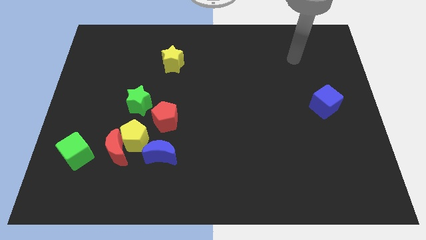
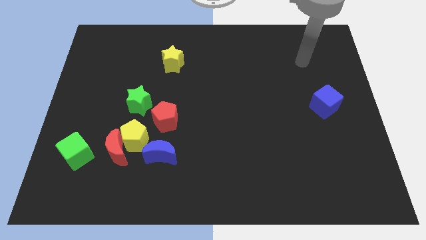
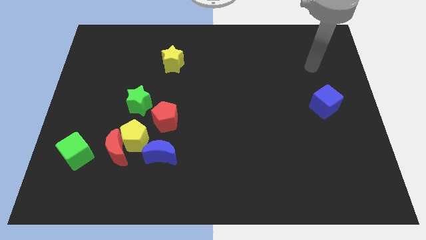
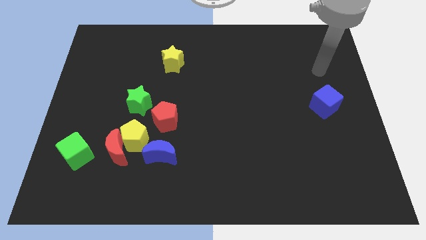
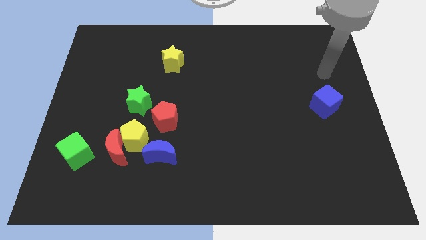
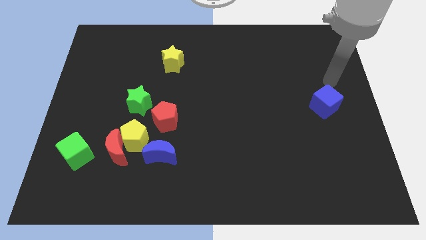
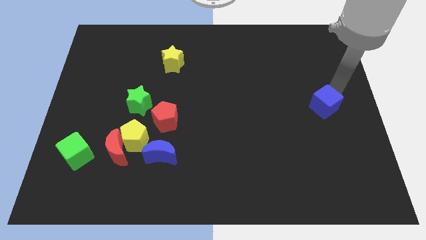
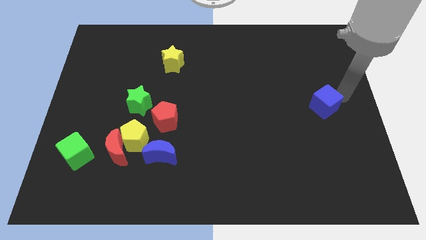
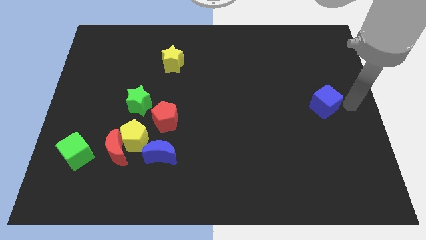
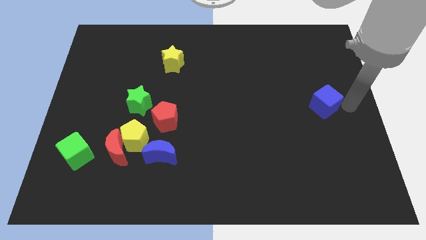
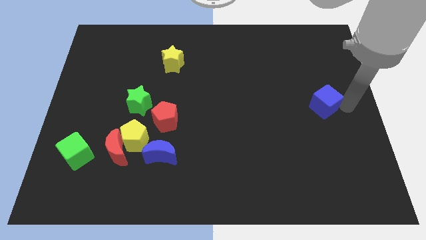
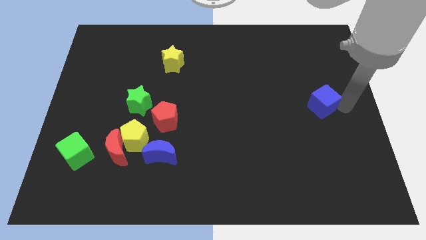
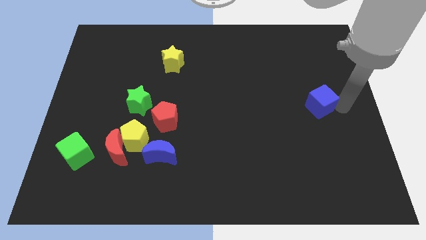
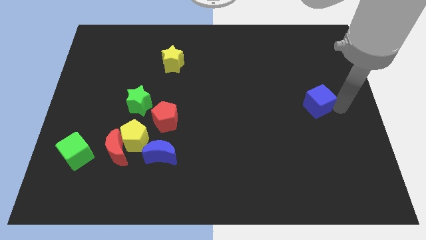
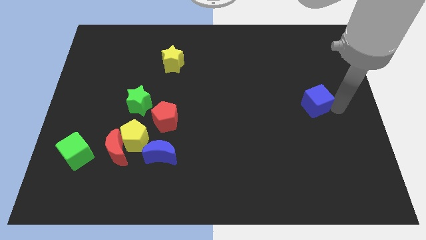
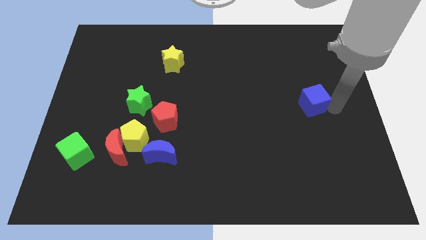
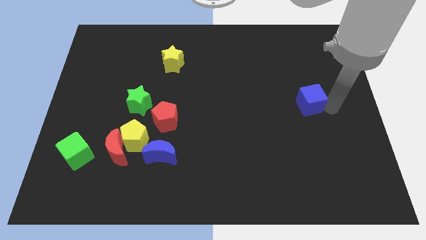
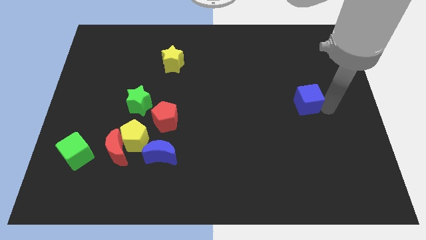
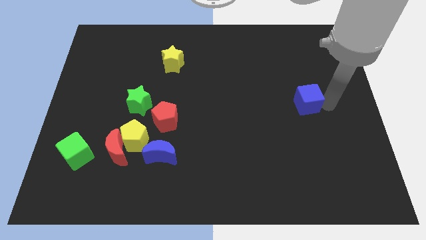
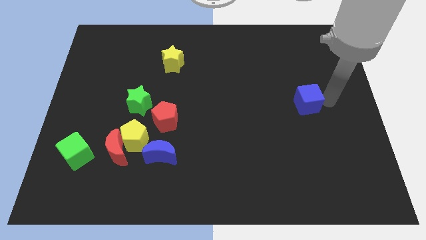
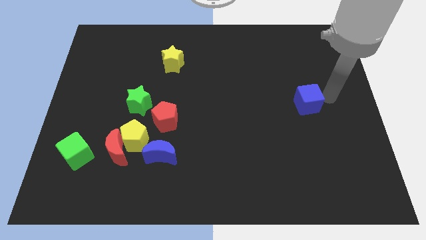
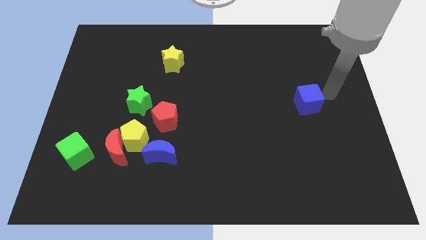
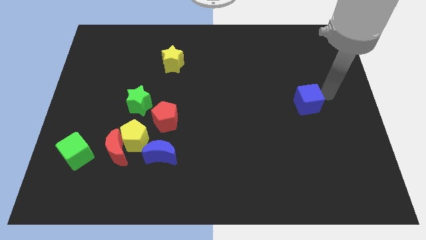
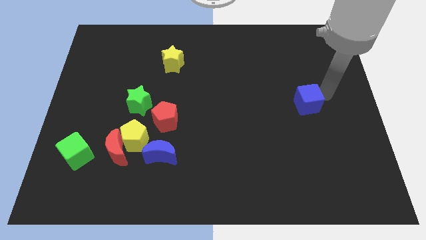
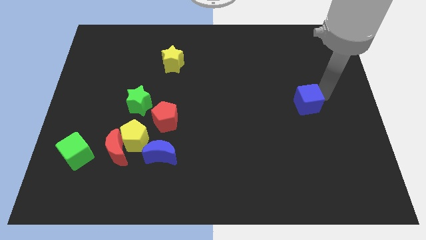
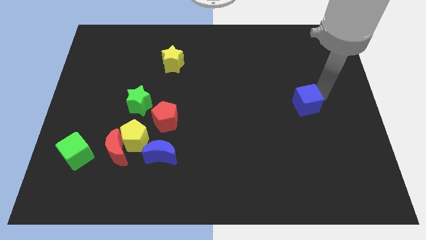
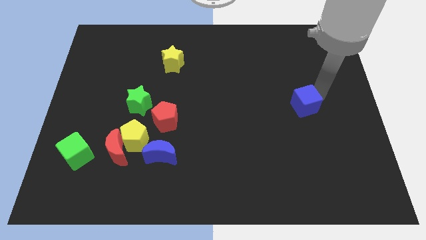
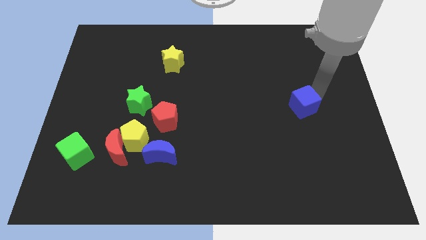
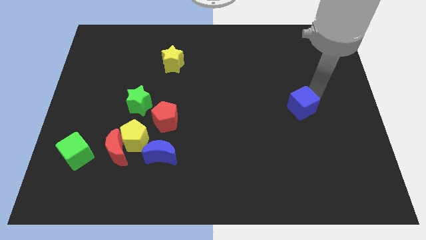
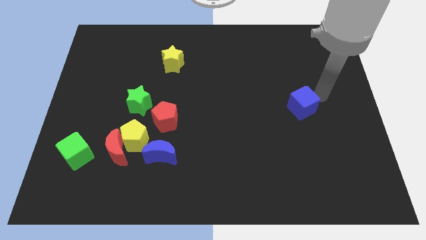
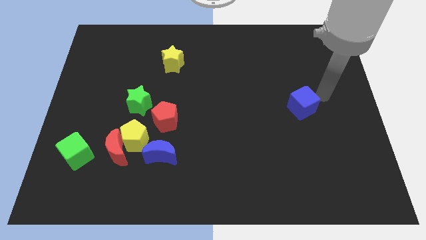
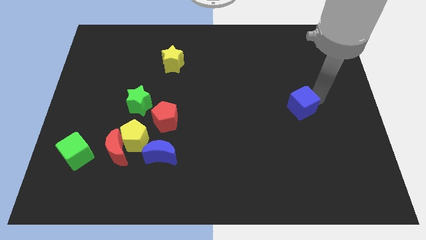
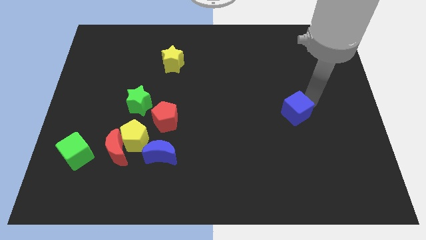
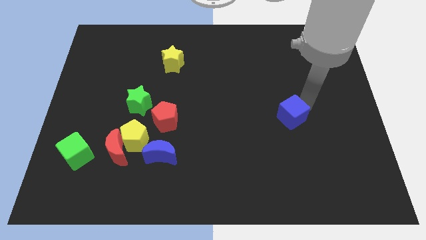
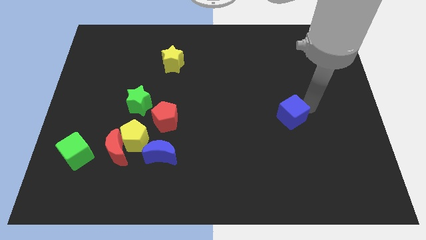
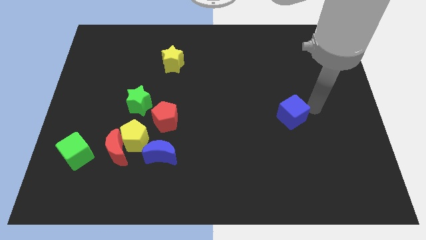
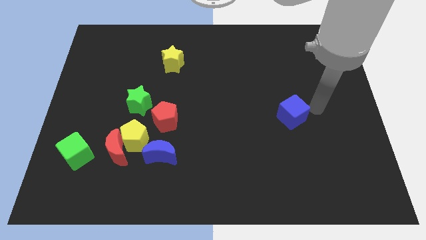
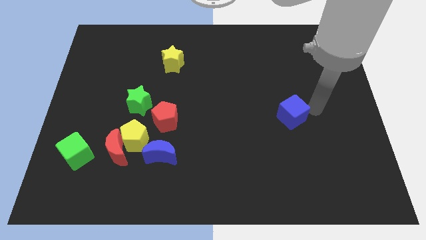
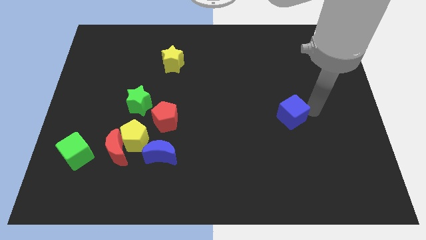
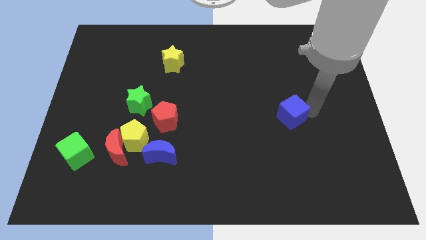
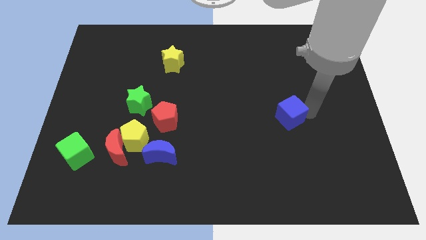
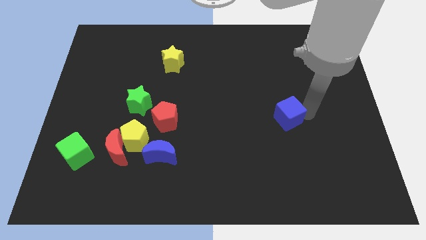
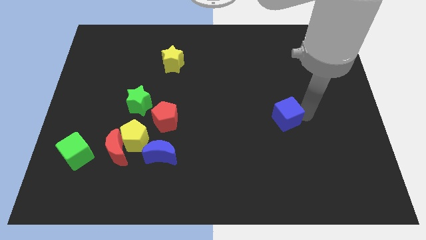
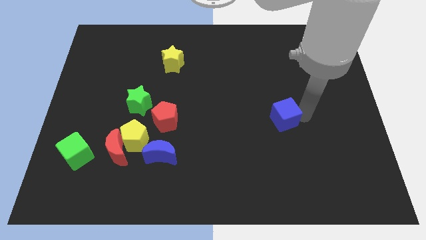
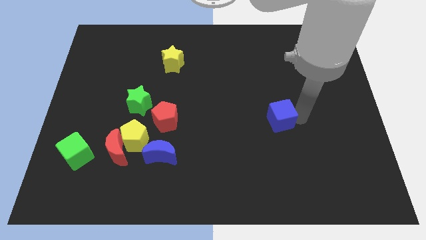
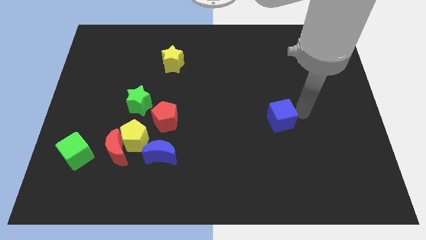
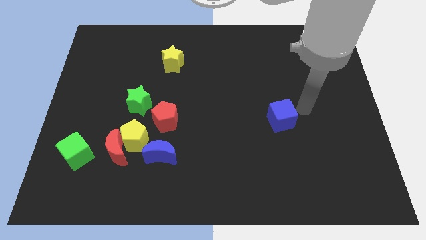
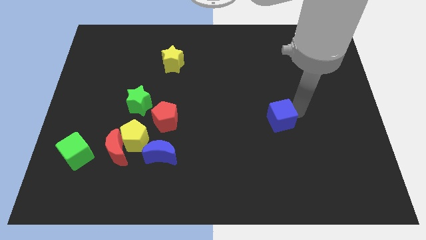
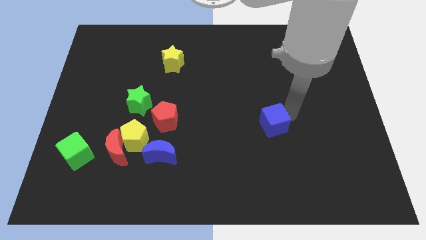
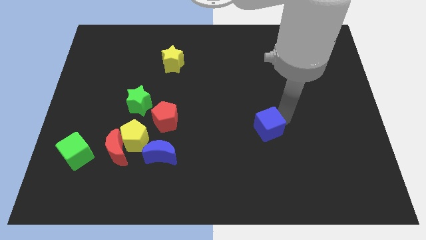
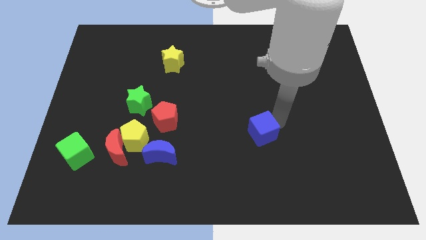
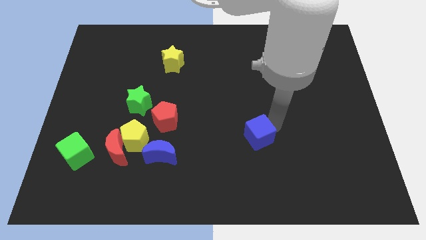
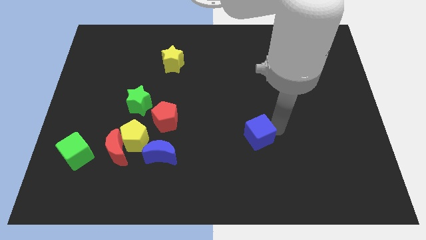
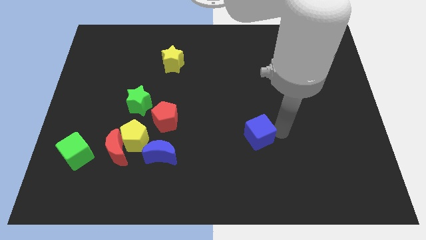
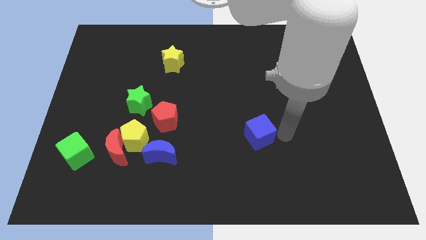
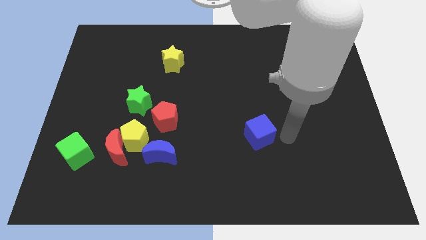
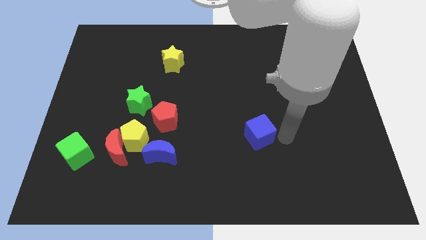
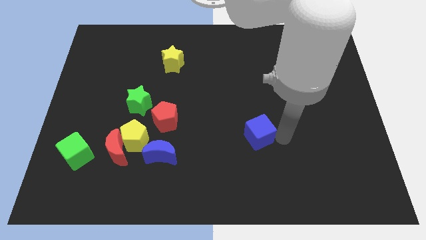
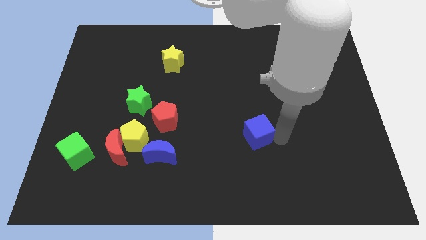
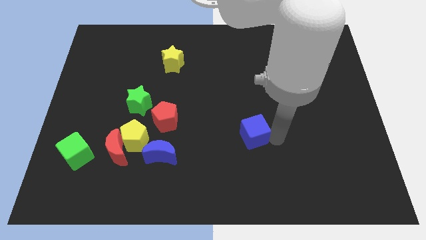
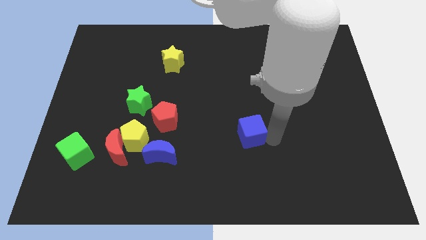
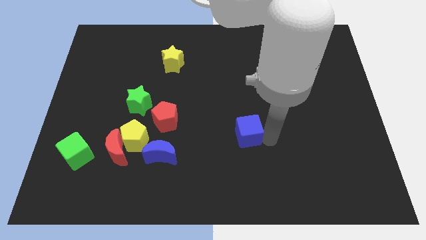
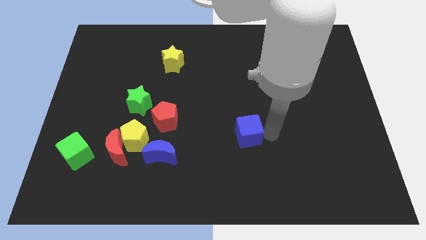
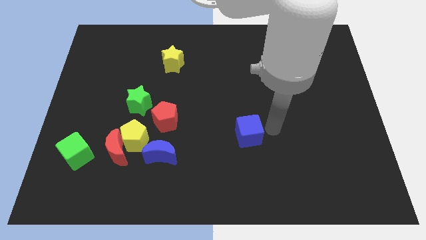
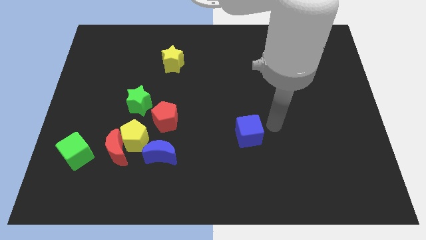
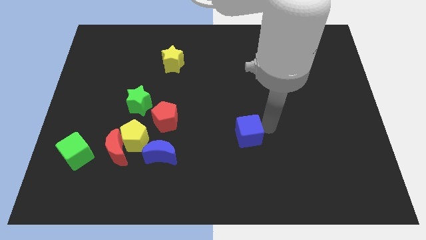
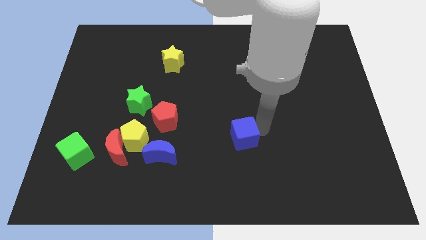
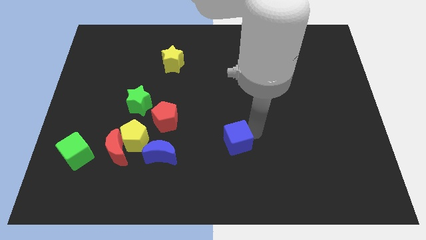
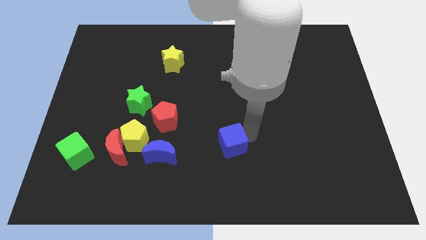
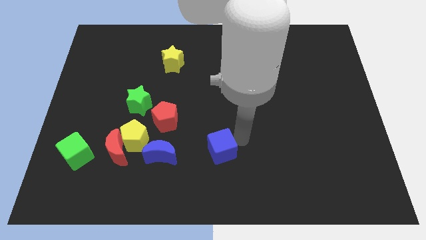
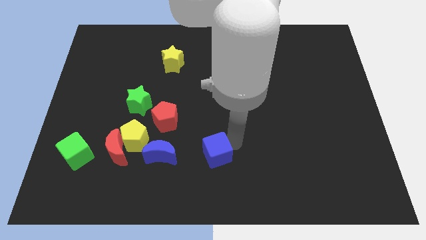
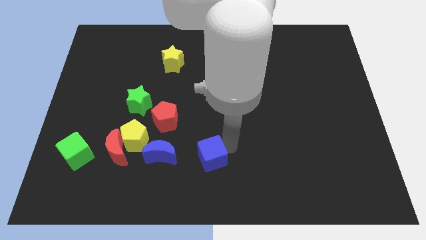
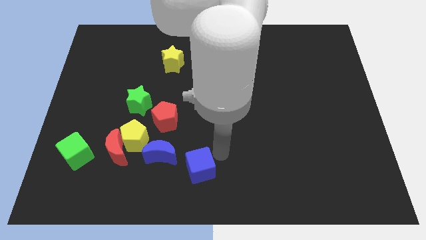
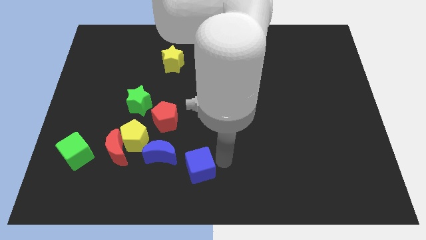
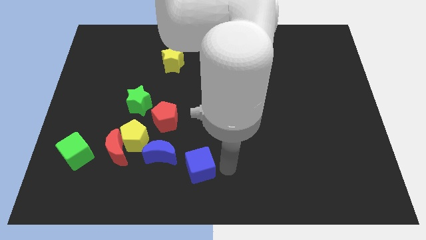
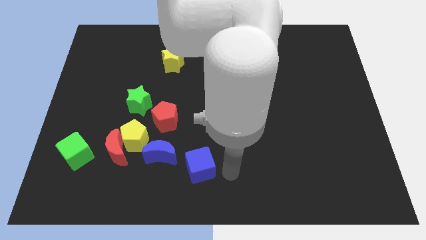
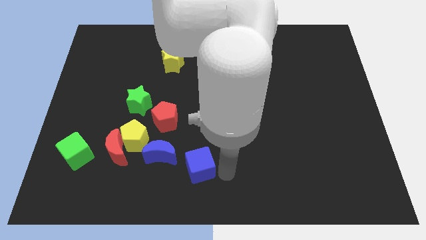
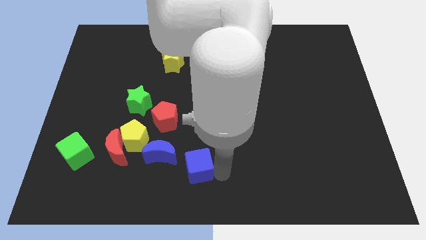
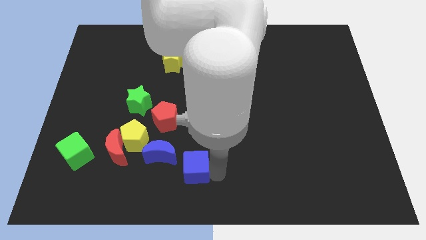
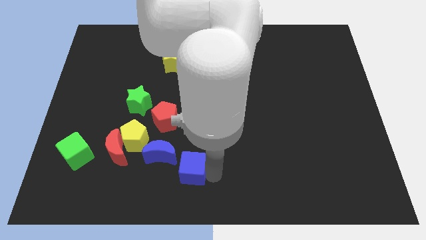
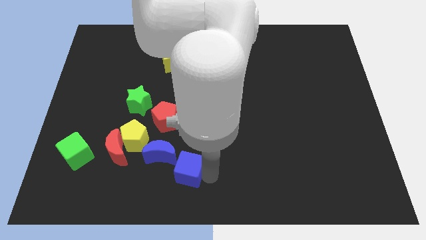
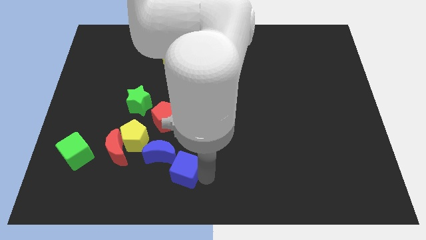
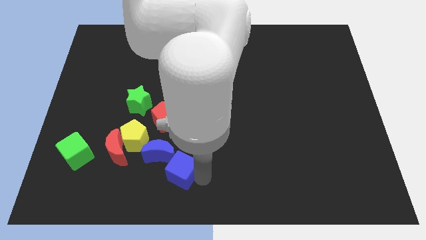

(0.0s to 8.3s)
push the blue cube to the bottom of the red pentagon
